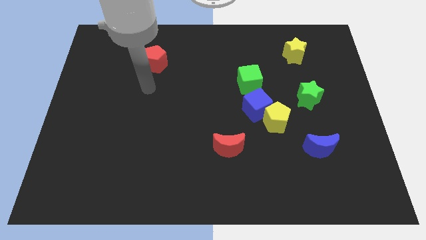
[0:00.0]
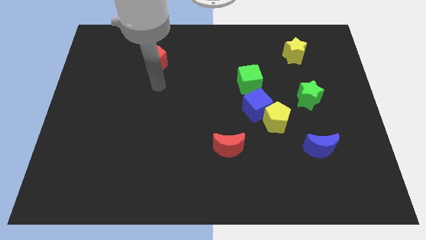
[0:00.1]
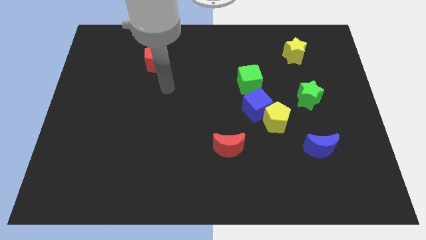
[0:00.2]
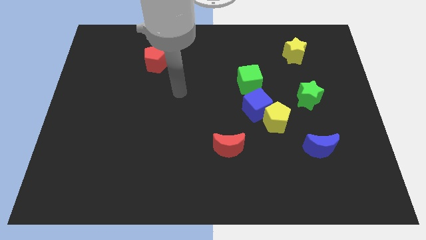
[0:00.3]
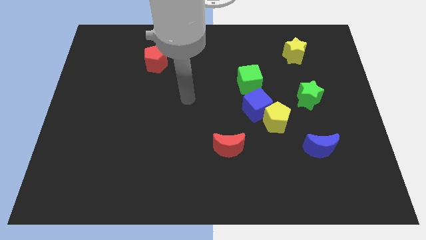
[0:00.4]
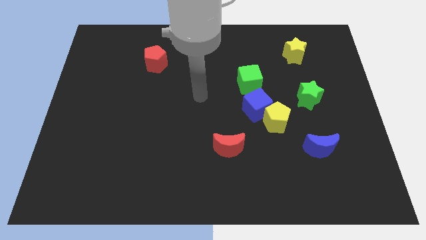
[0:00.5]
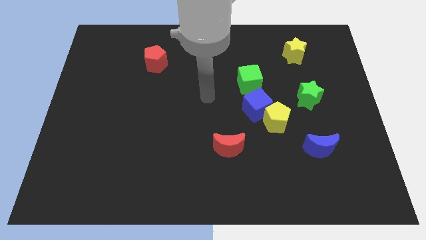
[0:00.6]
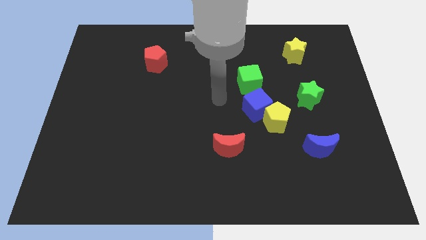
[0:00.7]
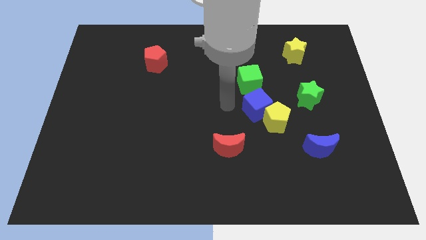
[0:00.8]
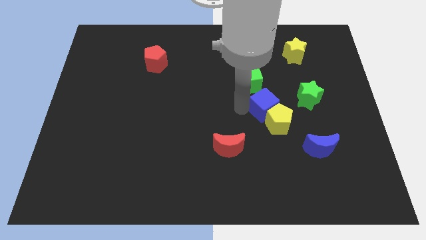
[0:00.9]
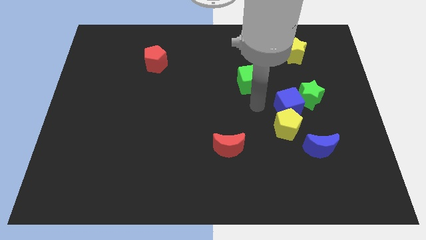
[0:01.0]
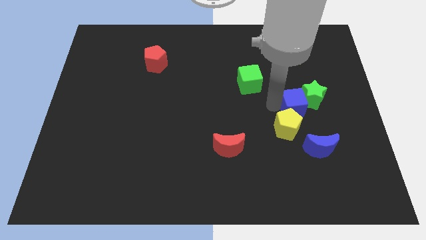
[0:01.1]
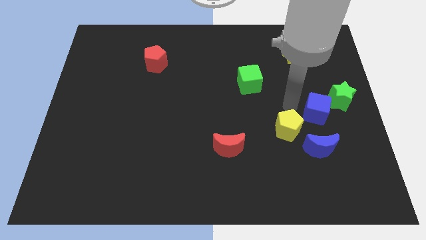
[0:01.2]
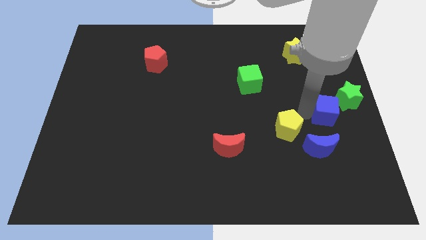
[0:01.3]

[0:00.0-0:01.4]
move the yellow pentagon away from the blue cube

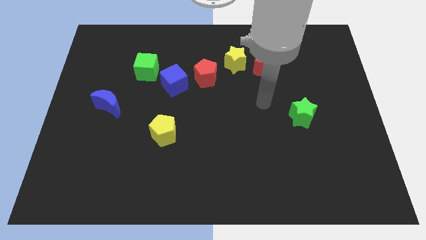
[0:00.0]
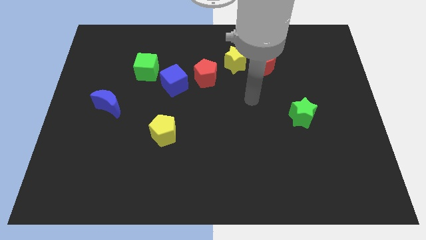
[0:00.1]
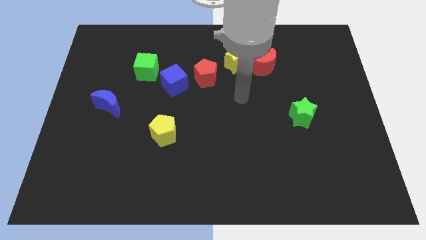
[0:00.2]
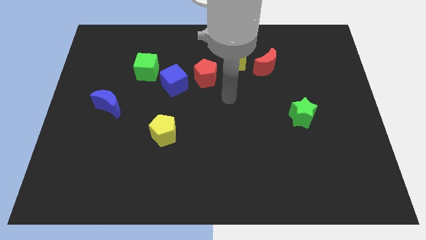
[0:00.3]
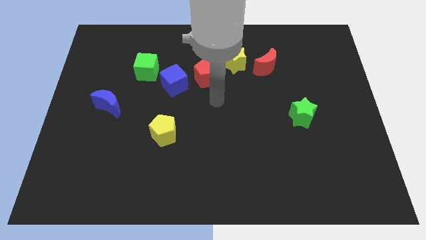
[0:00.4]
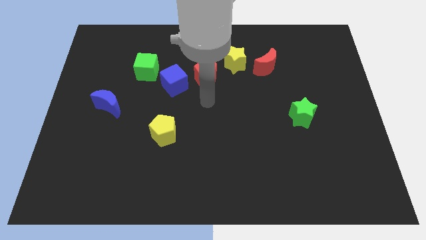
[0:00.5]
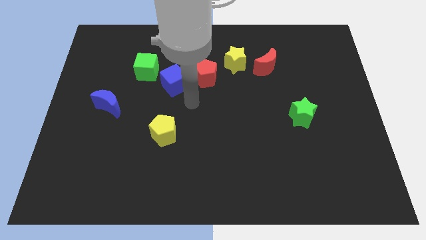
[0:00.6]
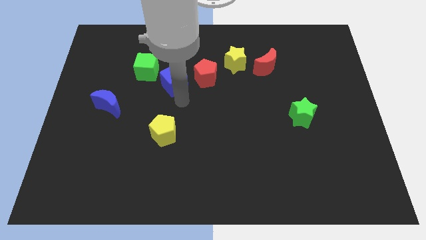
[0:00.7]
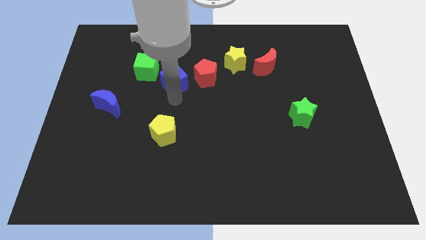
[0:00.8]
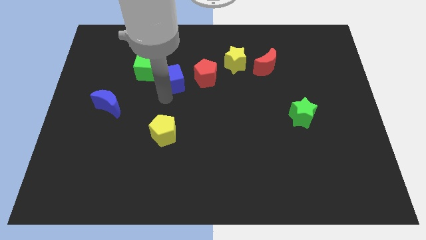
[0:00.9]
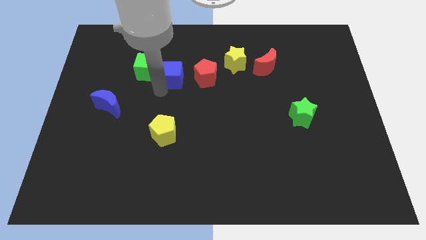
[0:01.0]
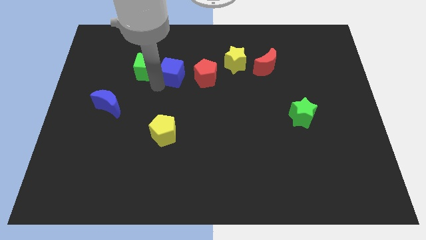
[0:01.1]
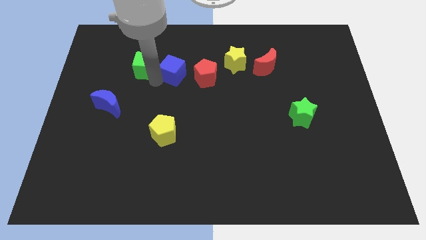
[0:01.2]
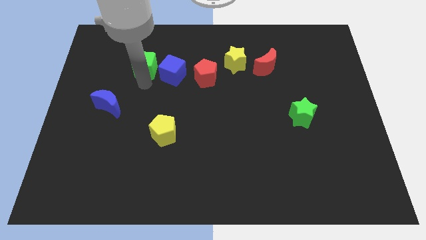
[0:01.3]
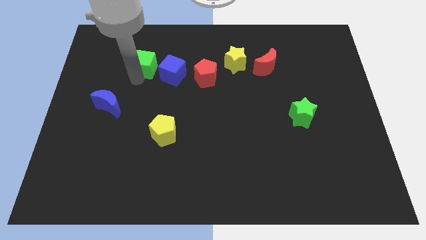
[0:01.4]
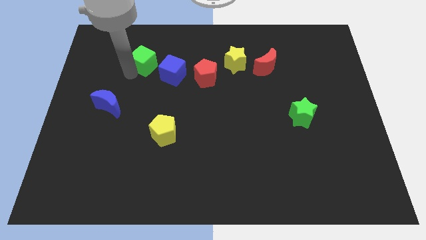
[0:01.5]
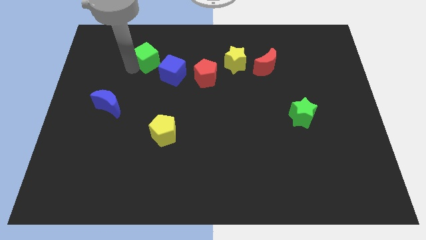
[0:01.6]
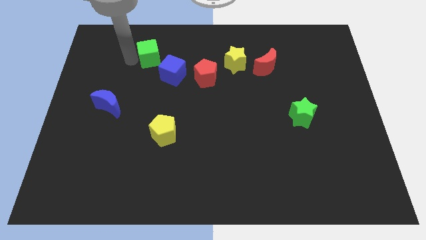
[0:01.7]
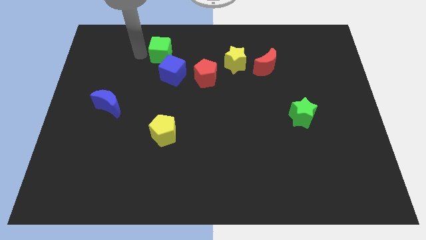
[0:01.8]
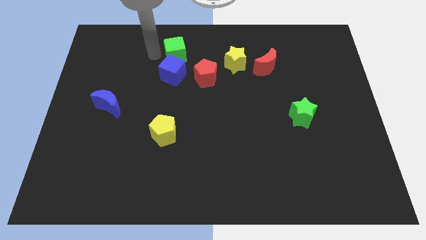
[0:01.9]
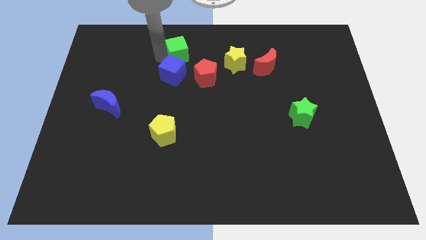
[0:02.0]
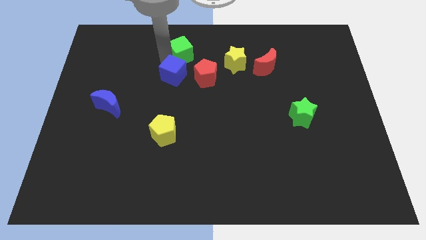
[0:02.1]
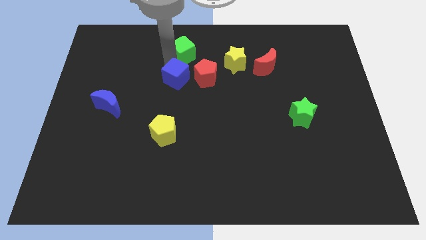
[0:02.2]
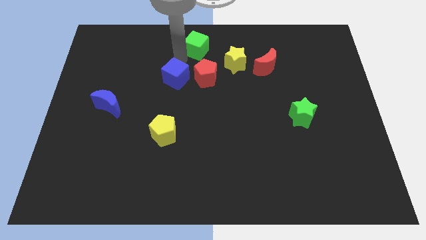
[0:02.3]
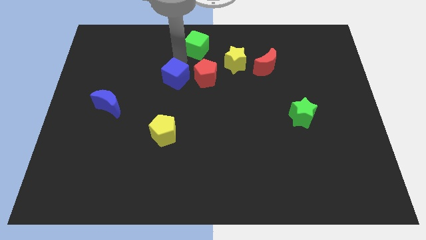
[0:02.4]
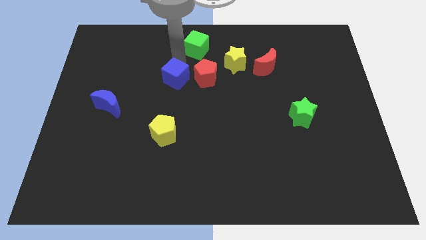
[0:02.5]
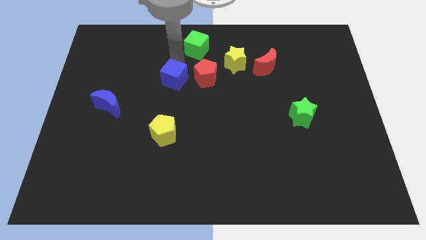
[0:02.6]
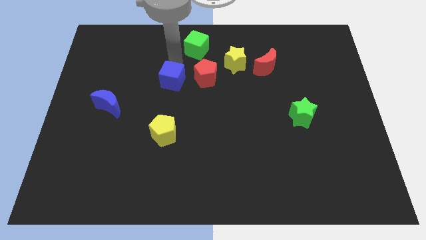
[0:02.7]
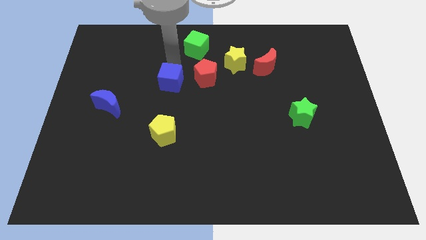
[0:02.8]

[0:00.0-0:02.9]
separate the blue cube from the red pentagon and green cube

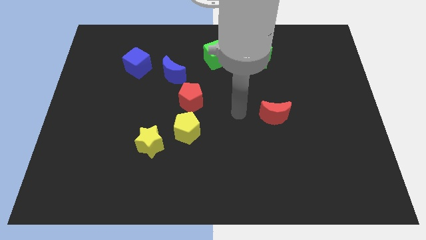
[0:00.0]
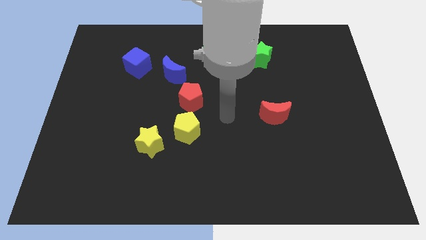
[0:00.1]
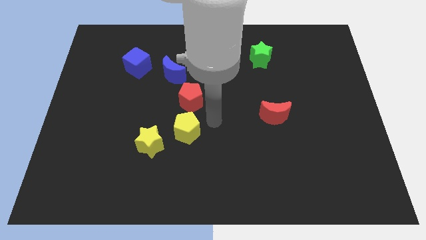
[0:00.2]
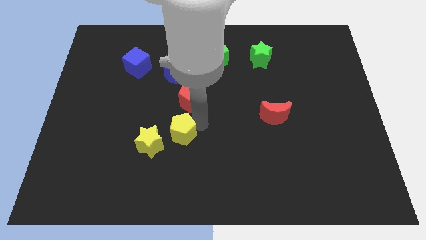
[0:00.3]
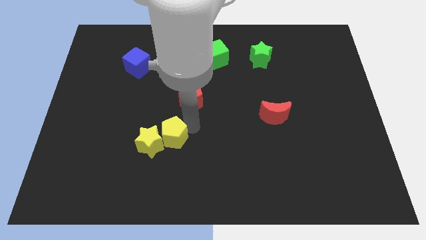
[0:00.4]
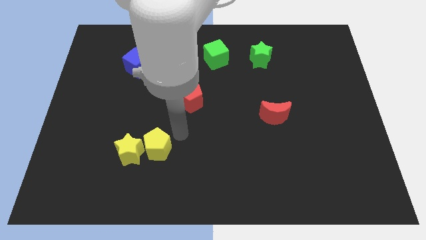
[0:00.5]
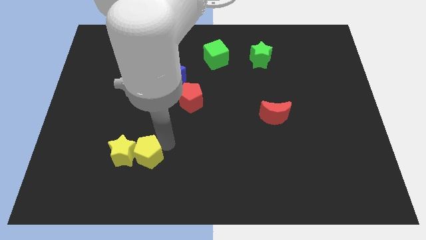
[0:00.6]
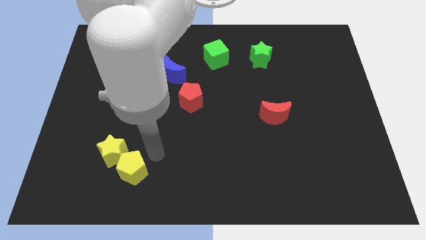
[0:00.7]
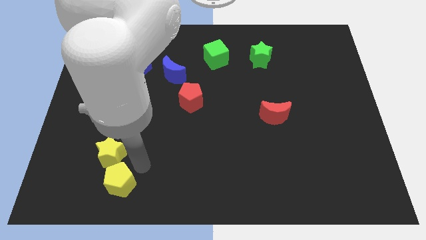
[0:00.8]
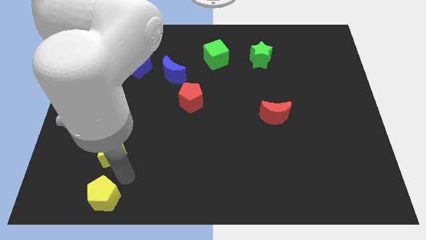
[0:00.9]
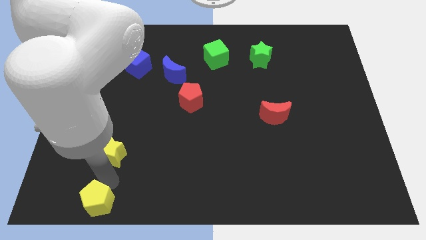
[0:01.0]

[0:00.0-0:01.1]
pull the yellow star apart from the yellow pentagon

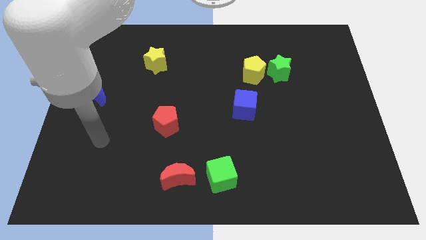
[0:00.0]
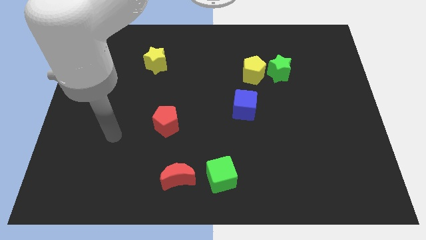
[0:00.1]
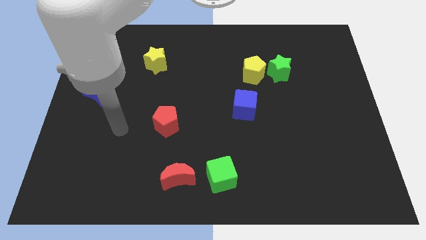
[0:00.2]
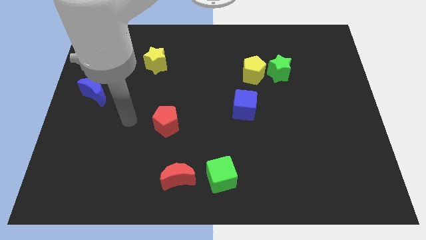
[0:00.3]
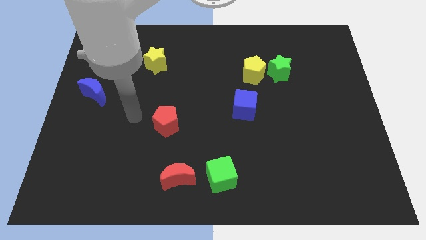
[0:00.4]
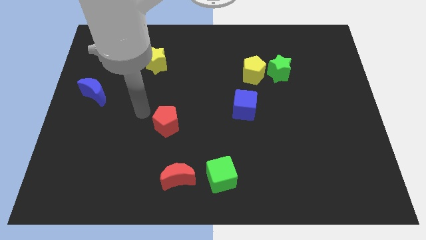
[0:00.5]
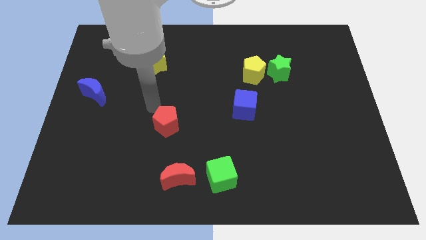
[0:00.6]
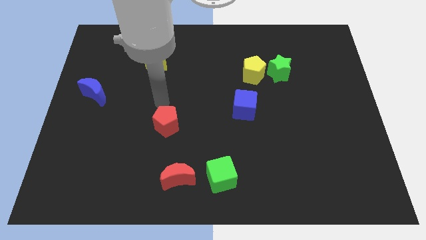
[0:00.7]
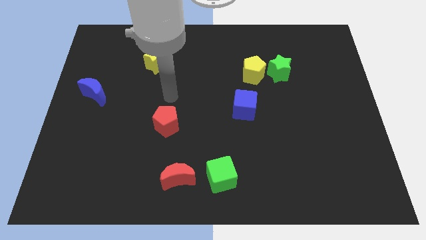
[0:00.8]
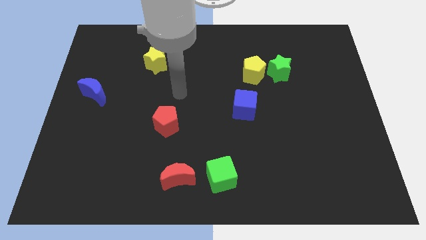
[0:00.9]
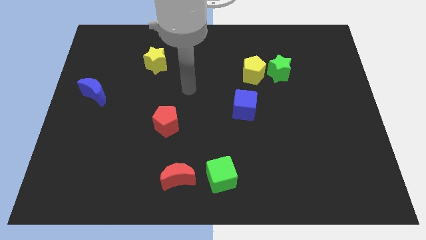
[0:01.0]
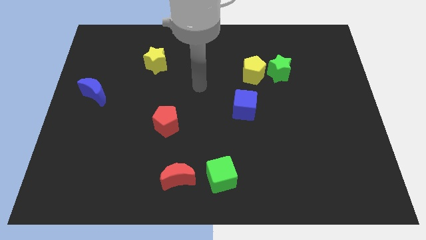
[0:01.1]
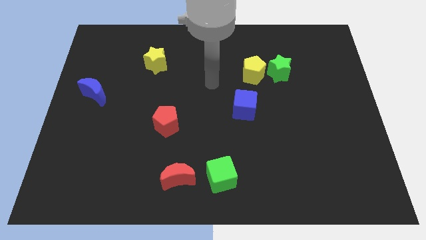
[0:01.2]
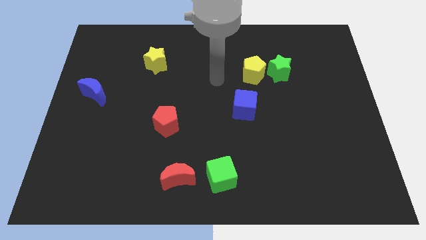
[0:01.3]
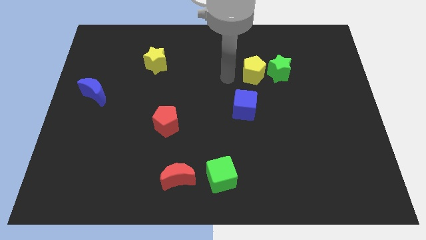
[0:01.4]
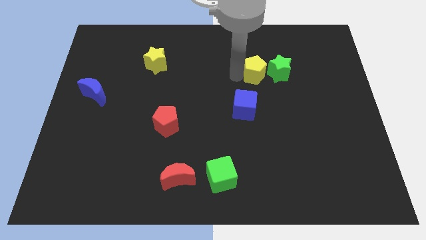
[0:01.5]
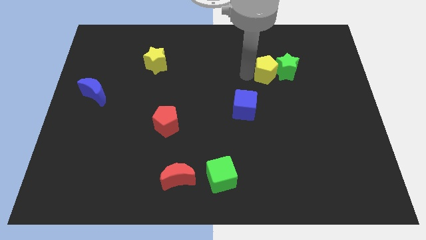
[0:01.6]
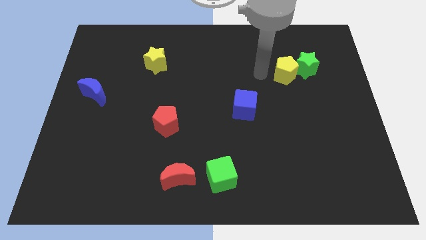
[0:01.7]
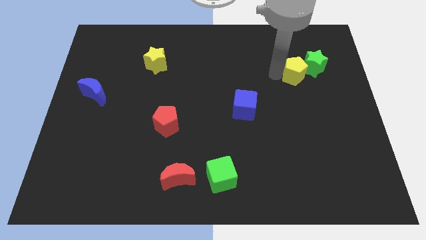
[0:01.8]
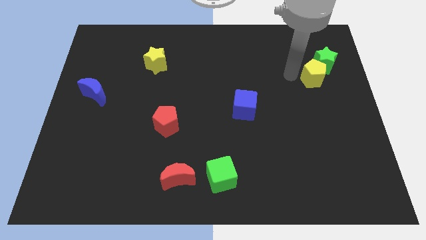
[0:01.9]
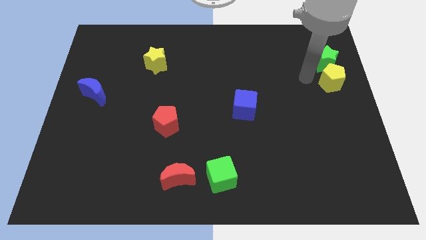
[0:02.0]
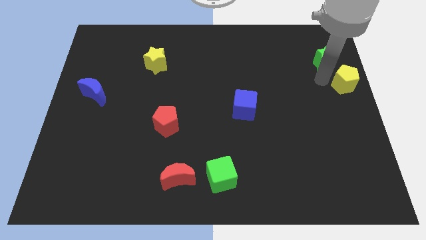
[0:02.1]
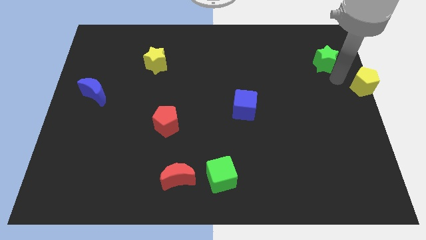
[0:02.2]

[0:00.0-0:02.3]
move the green star away from the yellow pentagon

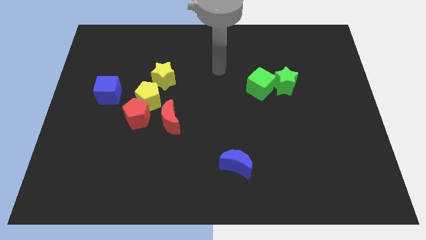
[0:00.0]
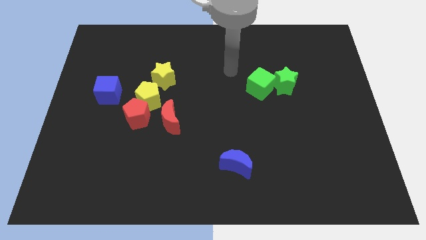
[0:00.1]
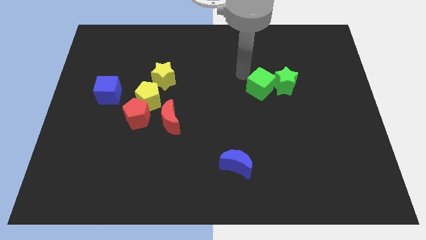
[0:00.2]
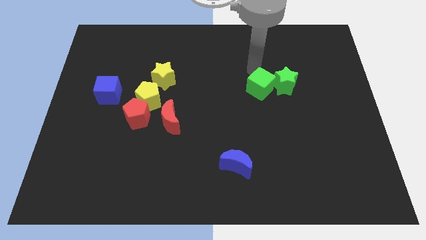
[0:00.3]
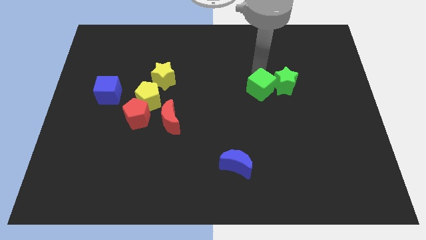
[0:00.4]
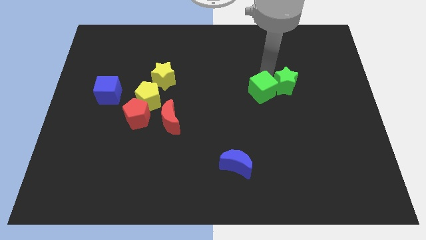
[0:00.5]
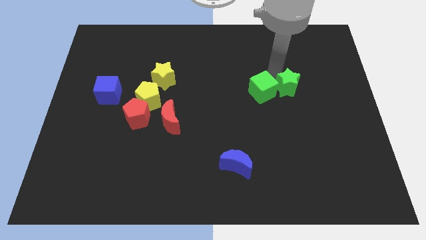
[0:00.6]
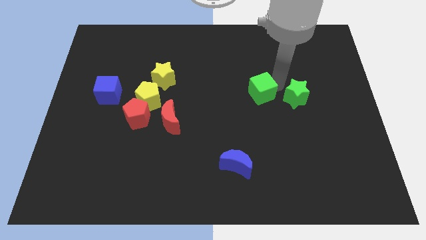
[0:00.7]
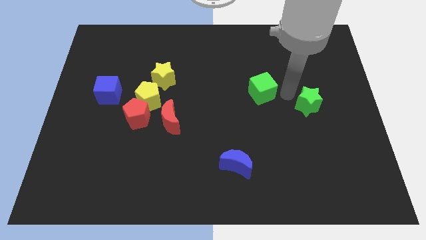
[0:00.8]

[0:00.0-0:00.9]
separate the green cube from the green star

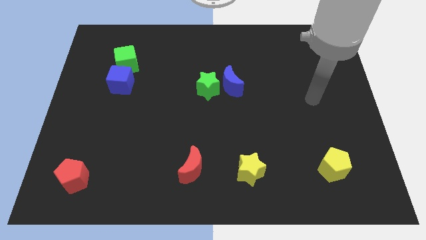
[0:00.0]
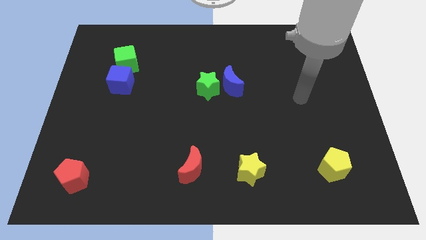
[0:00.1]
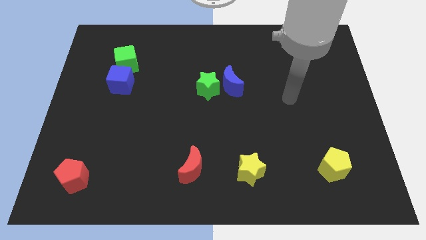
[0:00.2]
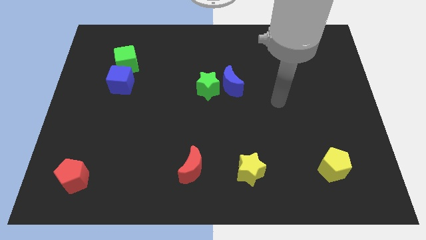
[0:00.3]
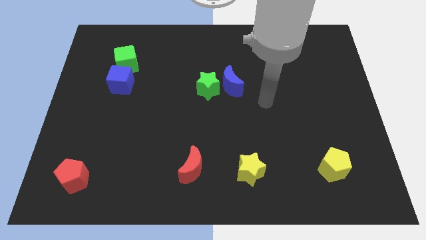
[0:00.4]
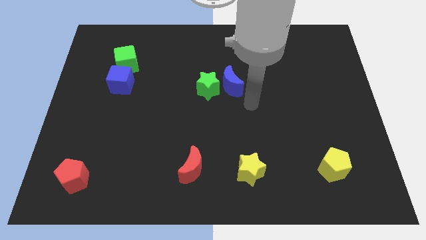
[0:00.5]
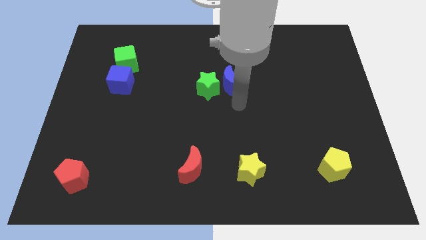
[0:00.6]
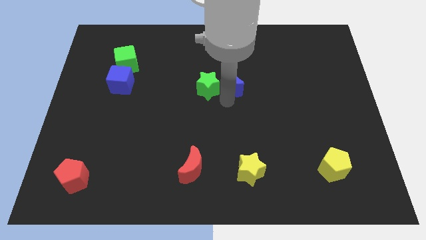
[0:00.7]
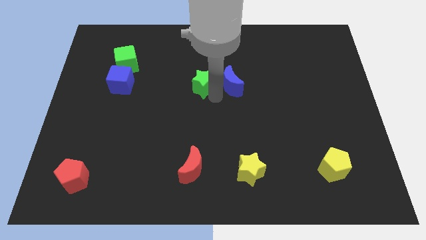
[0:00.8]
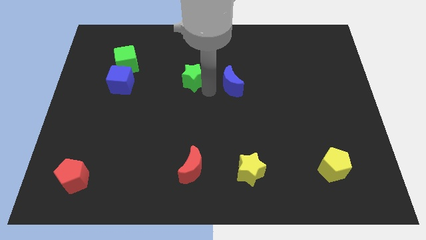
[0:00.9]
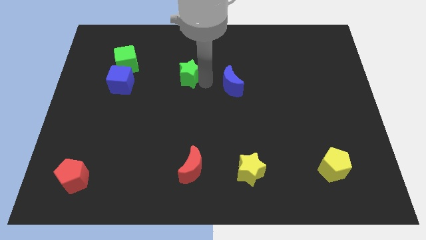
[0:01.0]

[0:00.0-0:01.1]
separate the blue moon from the green star
